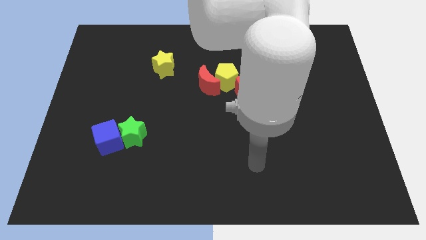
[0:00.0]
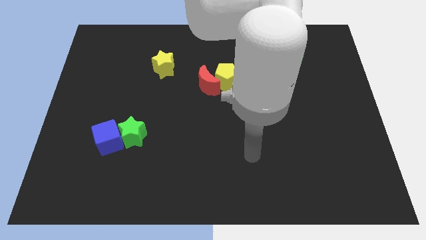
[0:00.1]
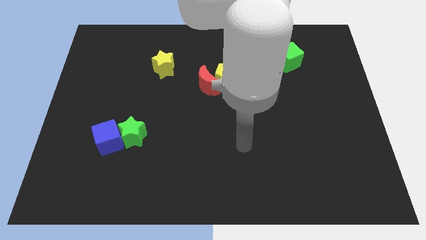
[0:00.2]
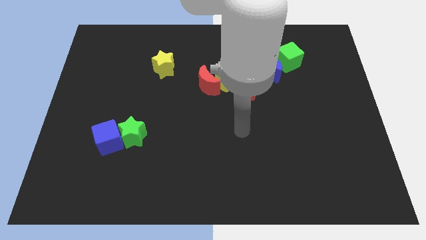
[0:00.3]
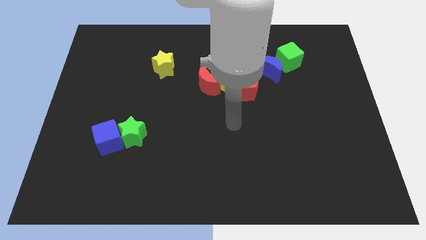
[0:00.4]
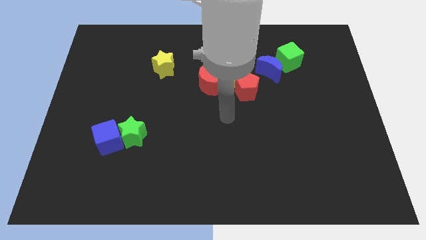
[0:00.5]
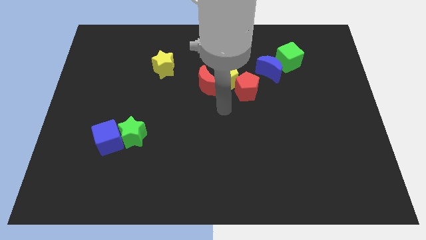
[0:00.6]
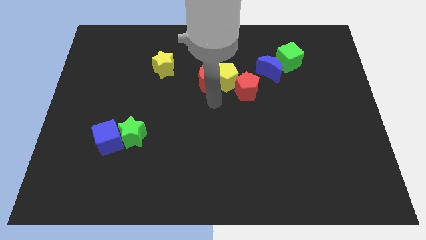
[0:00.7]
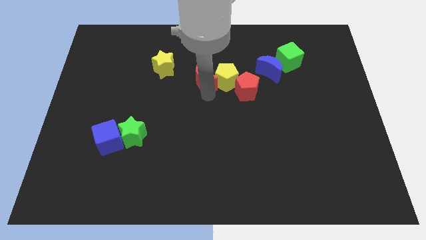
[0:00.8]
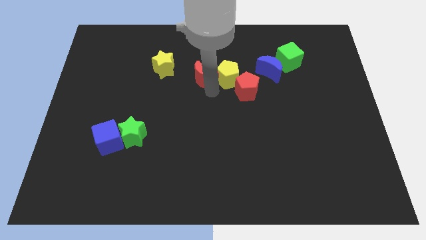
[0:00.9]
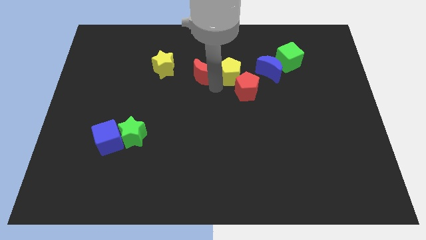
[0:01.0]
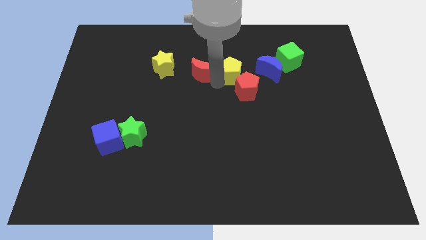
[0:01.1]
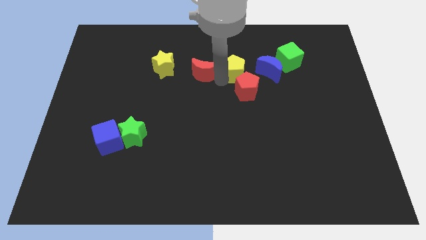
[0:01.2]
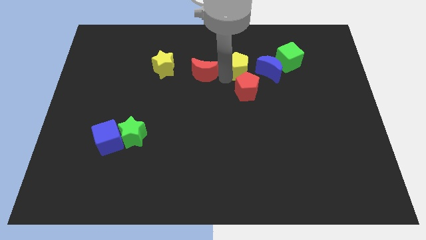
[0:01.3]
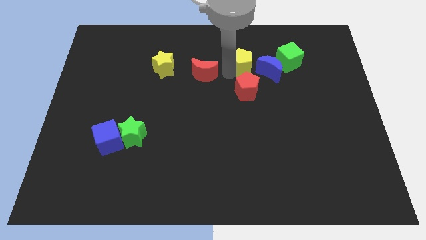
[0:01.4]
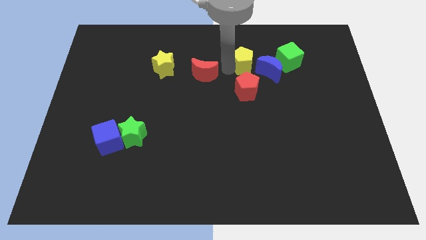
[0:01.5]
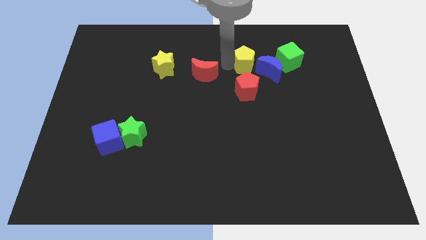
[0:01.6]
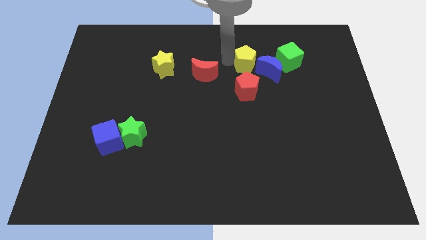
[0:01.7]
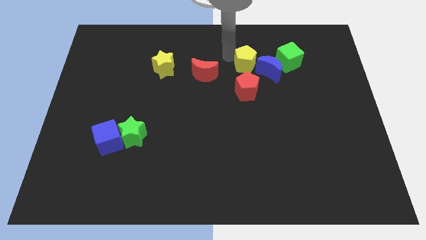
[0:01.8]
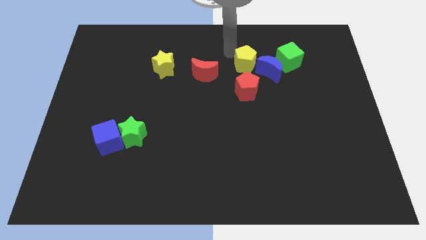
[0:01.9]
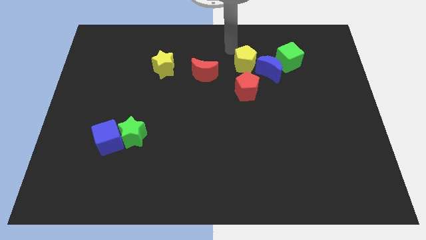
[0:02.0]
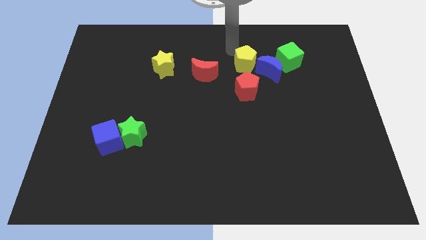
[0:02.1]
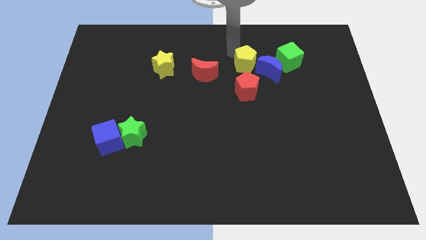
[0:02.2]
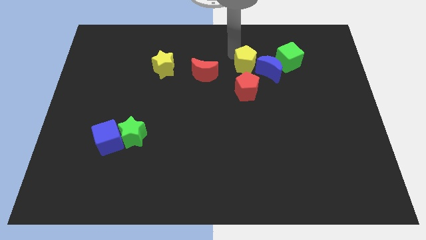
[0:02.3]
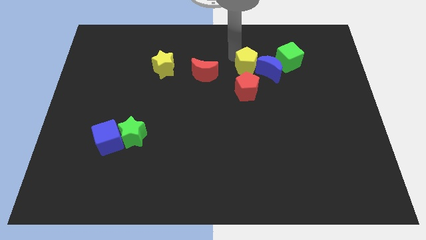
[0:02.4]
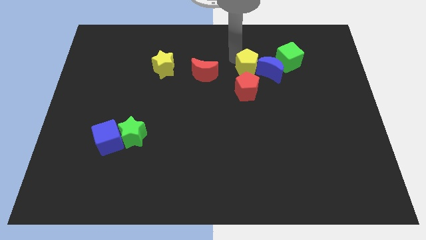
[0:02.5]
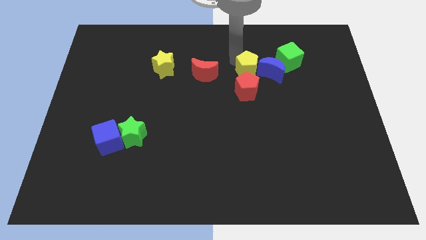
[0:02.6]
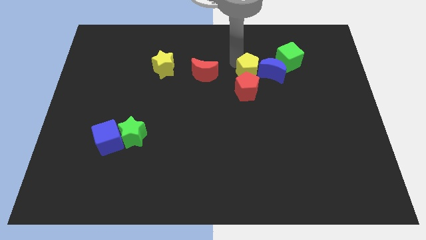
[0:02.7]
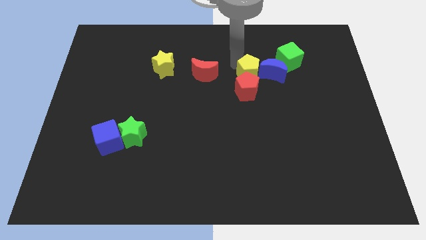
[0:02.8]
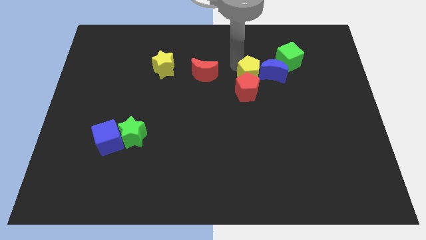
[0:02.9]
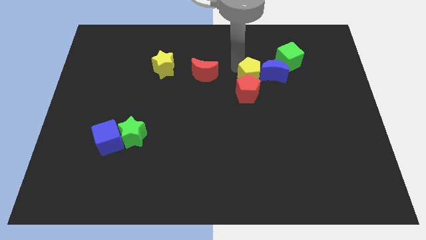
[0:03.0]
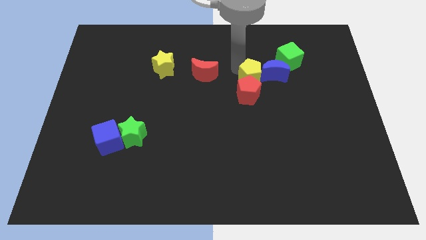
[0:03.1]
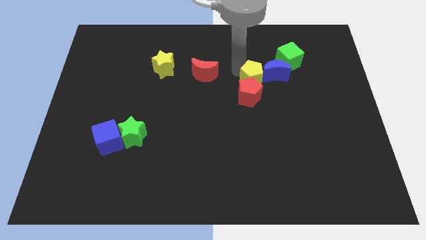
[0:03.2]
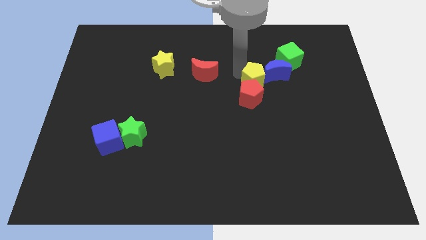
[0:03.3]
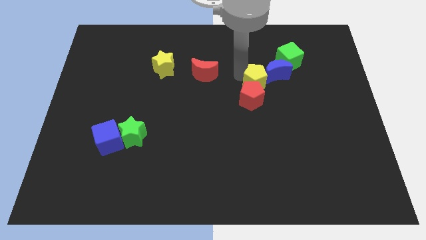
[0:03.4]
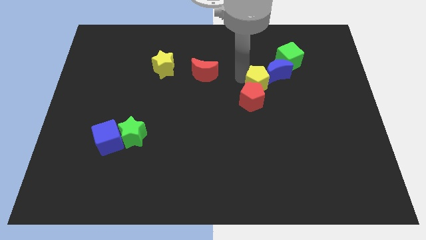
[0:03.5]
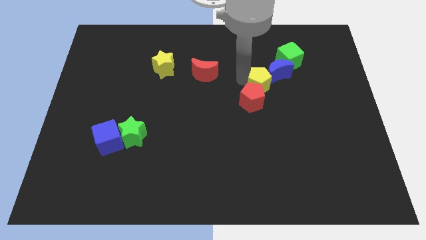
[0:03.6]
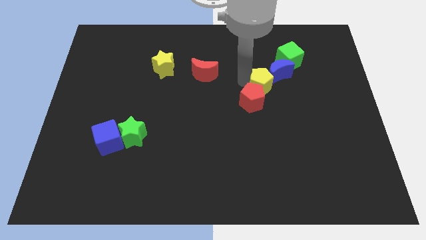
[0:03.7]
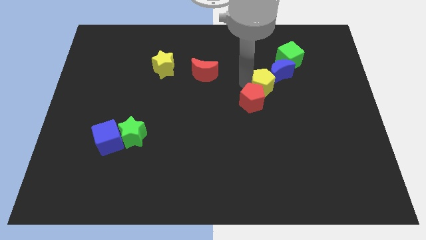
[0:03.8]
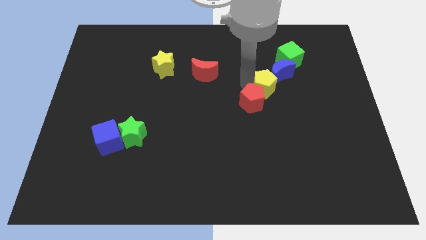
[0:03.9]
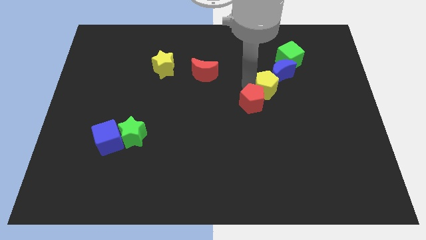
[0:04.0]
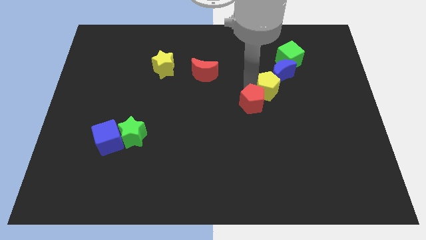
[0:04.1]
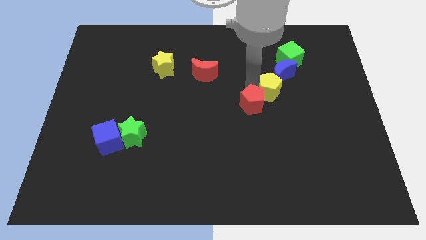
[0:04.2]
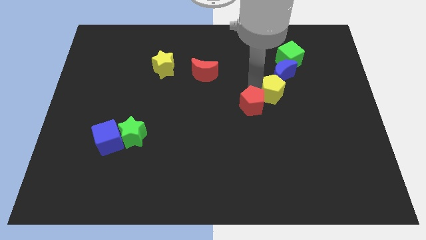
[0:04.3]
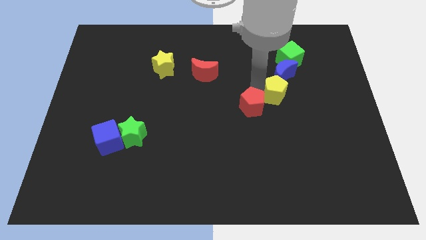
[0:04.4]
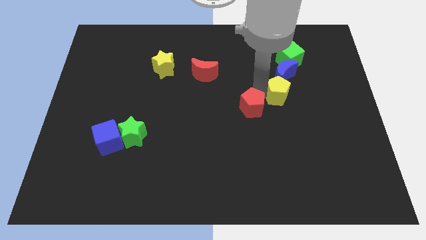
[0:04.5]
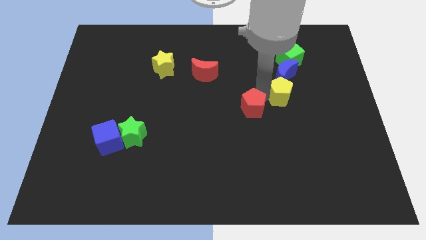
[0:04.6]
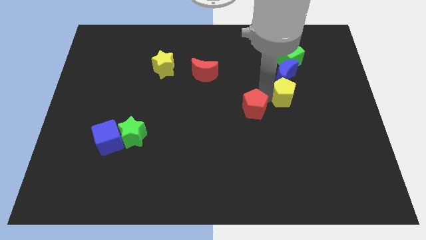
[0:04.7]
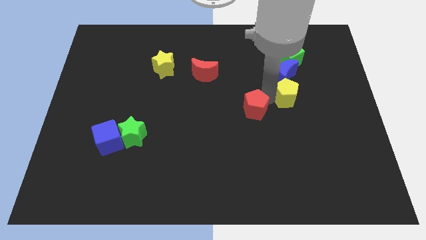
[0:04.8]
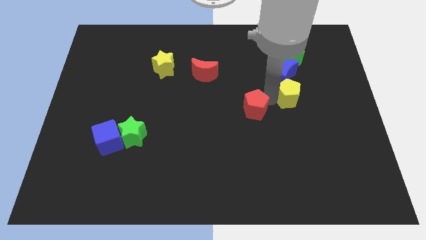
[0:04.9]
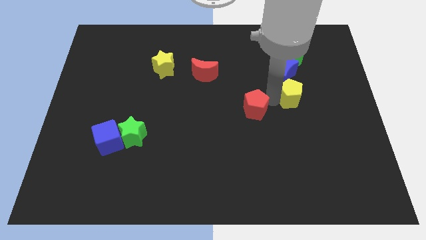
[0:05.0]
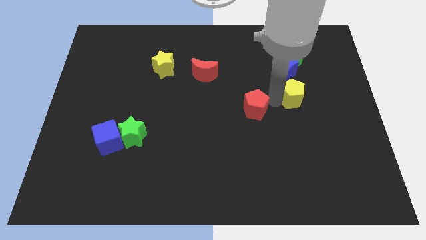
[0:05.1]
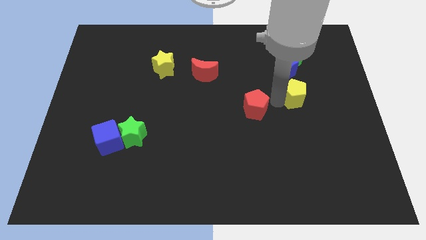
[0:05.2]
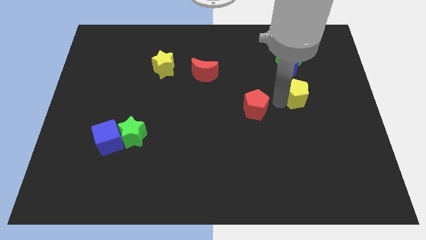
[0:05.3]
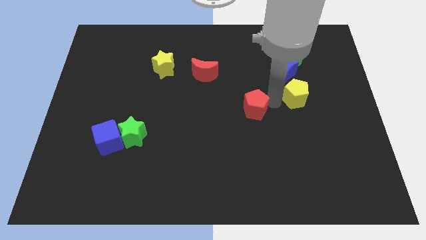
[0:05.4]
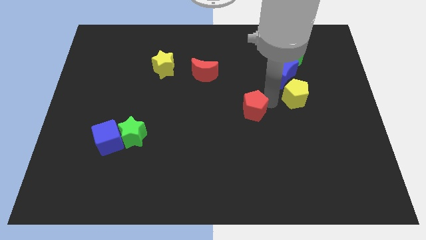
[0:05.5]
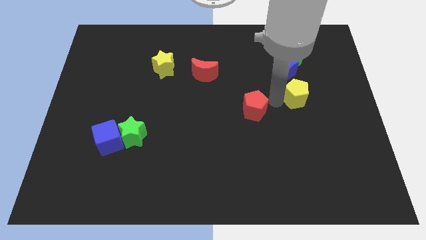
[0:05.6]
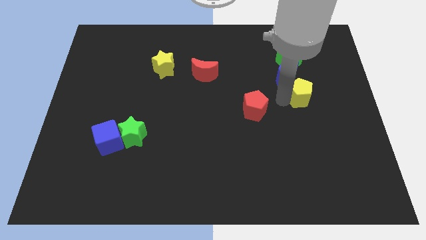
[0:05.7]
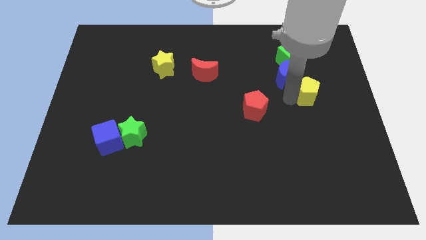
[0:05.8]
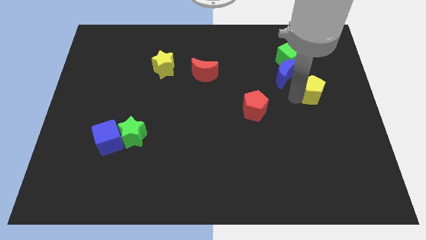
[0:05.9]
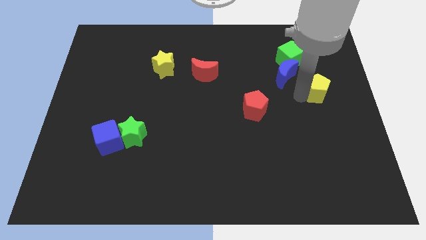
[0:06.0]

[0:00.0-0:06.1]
move the yellow pentagon to the right side
